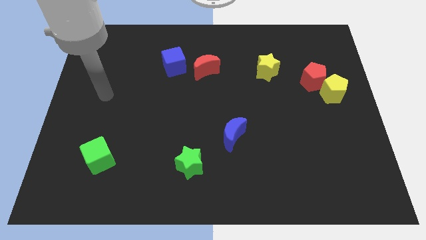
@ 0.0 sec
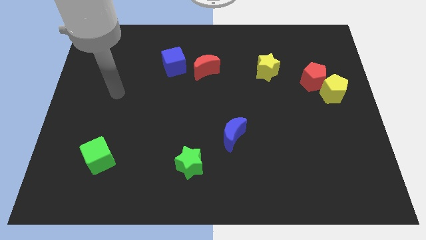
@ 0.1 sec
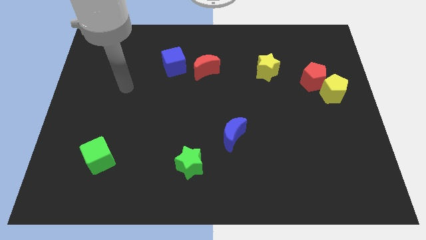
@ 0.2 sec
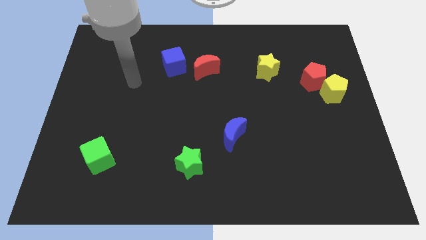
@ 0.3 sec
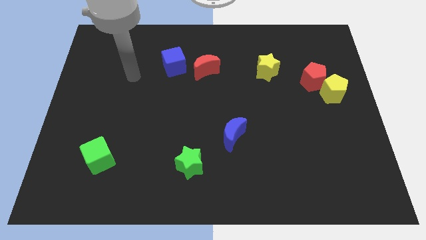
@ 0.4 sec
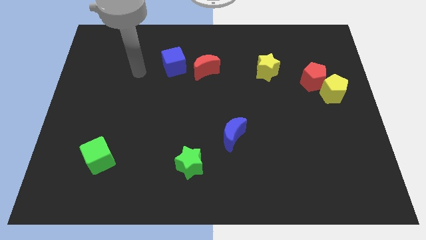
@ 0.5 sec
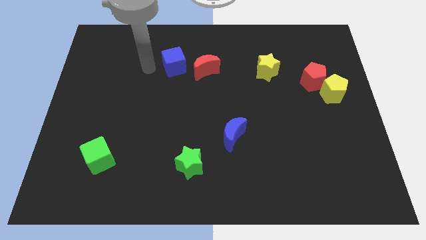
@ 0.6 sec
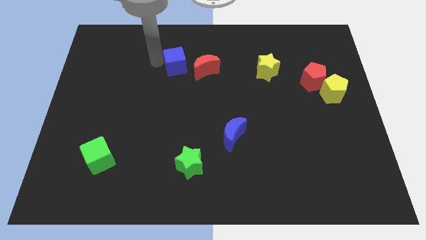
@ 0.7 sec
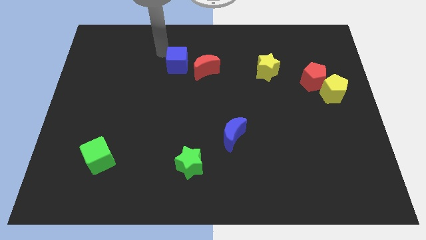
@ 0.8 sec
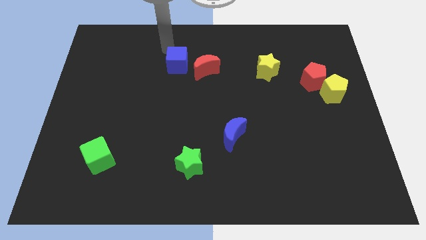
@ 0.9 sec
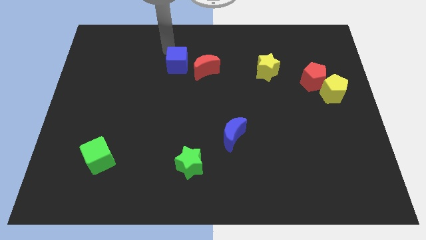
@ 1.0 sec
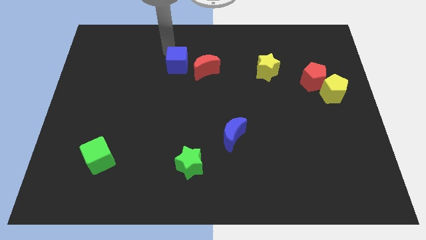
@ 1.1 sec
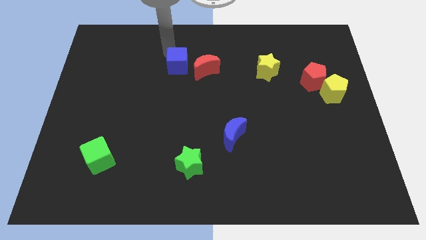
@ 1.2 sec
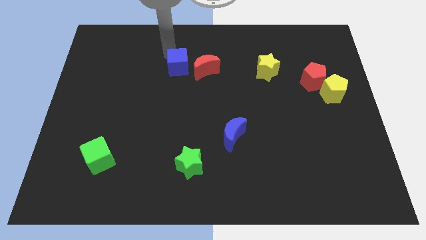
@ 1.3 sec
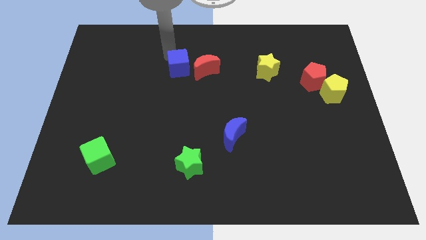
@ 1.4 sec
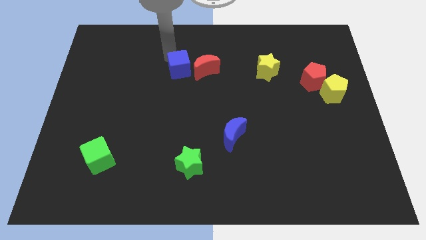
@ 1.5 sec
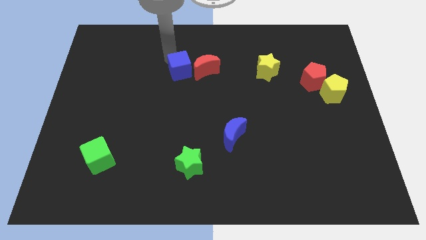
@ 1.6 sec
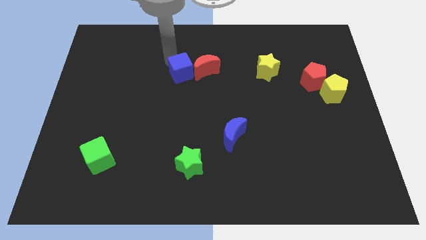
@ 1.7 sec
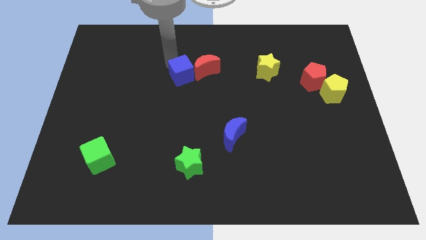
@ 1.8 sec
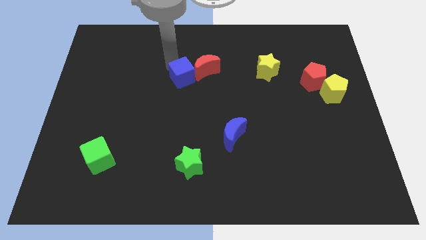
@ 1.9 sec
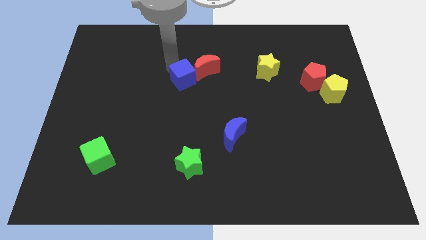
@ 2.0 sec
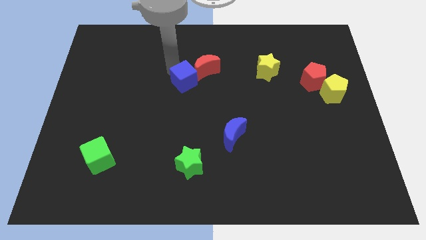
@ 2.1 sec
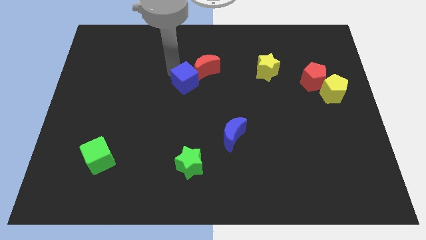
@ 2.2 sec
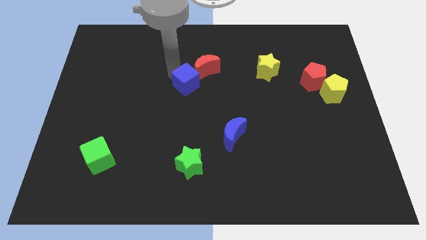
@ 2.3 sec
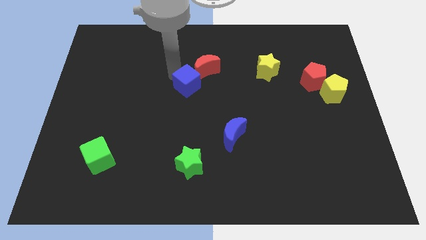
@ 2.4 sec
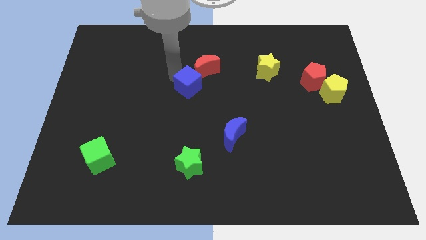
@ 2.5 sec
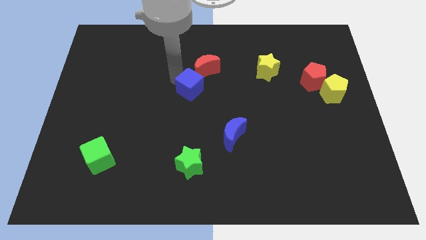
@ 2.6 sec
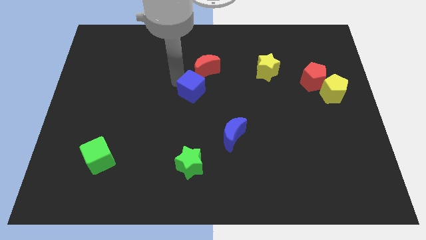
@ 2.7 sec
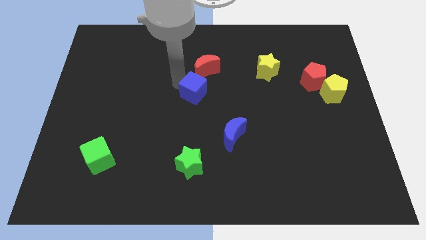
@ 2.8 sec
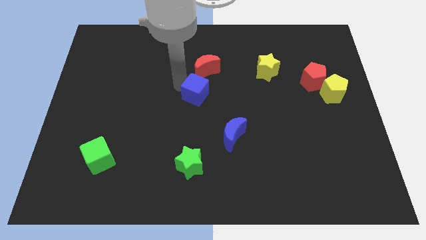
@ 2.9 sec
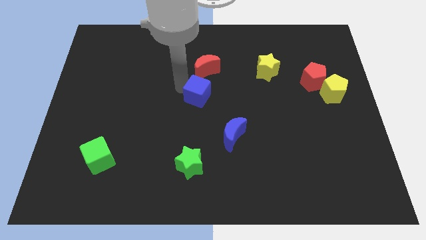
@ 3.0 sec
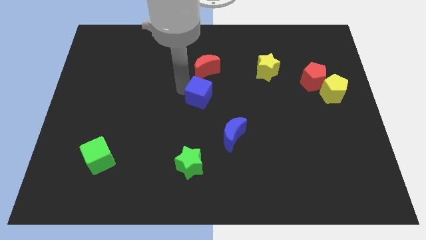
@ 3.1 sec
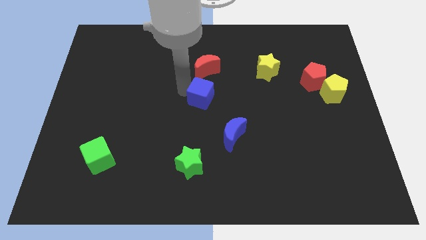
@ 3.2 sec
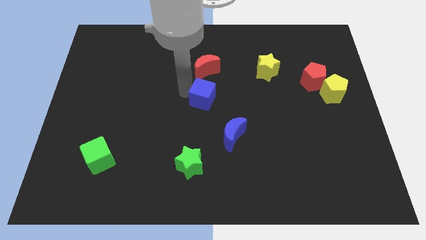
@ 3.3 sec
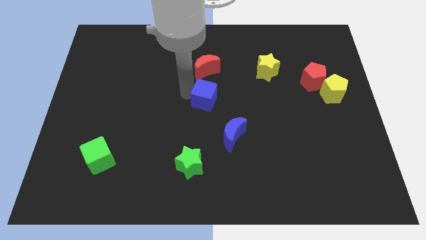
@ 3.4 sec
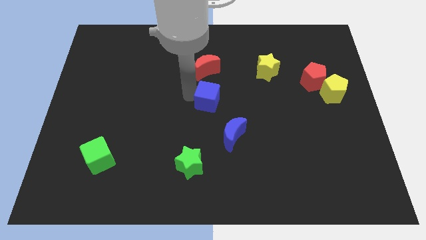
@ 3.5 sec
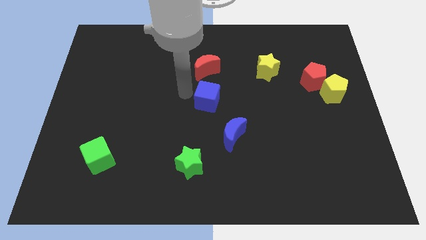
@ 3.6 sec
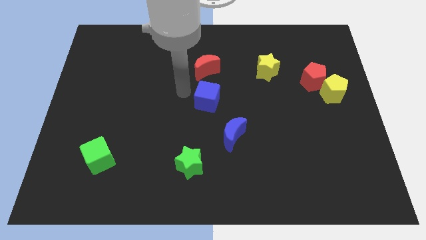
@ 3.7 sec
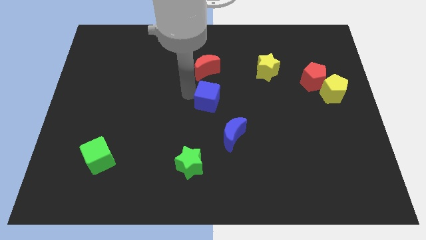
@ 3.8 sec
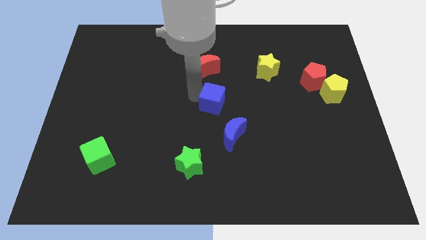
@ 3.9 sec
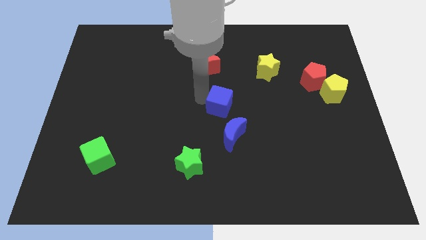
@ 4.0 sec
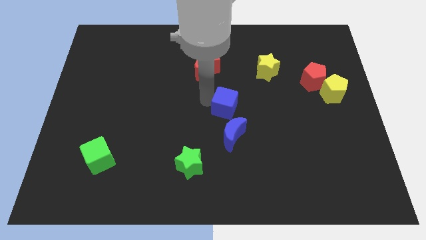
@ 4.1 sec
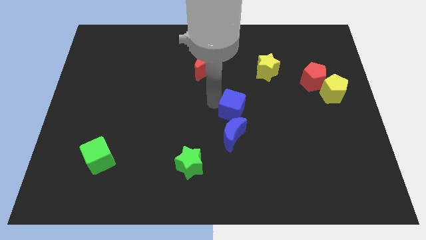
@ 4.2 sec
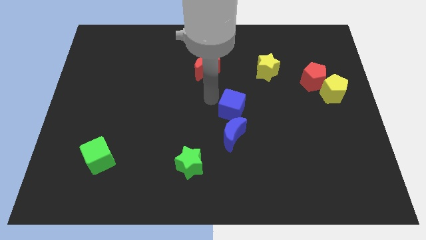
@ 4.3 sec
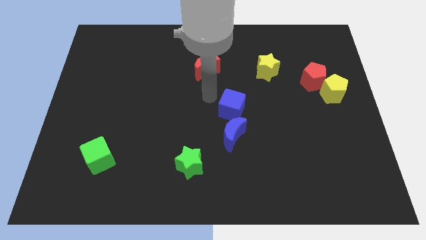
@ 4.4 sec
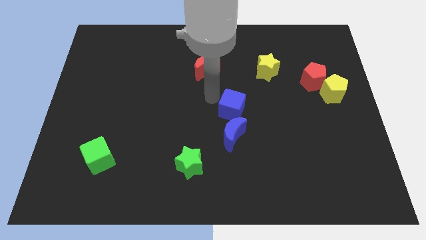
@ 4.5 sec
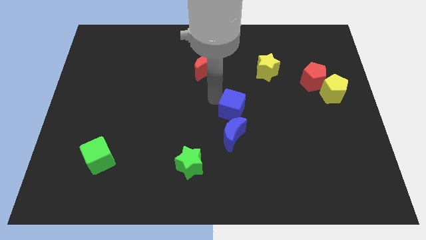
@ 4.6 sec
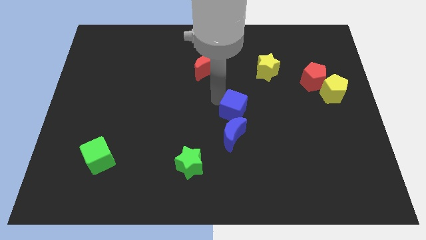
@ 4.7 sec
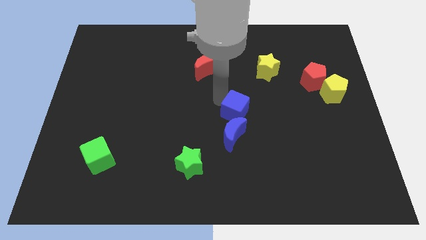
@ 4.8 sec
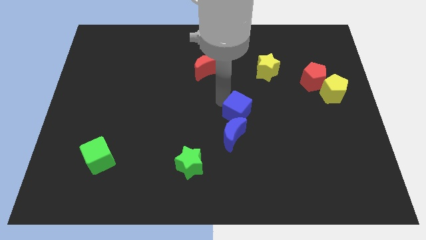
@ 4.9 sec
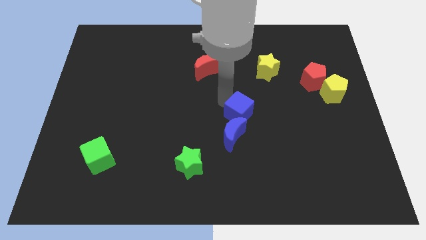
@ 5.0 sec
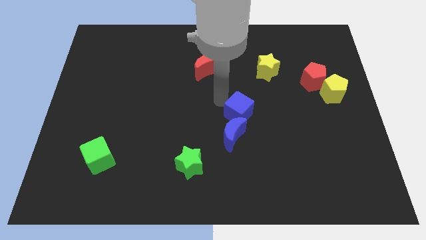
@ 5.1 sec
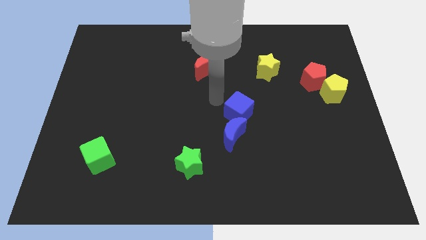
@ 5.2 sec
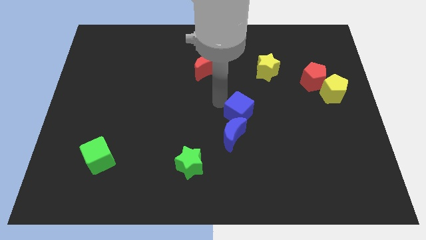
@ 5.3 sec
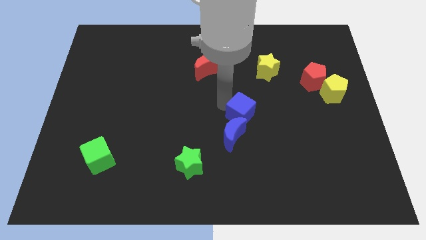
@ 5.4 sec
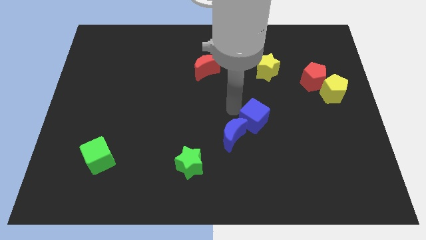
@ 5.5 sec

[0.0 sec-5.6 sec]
push the blue cube to the right side of the blue moon

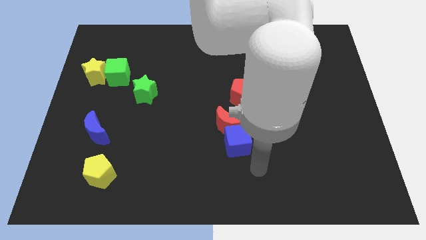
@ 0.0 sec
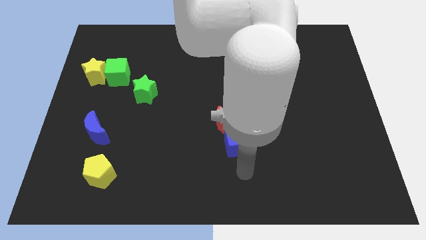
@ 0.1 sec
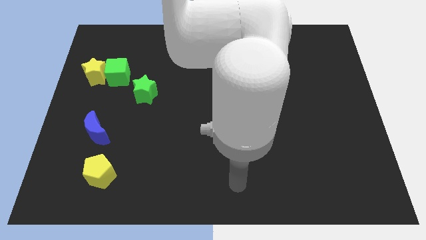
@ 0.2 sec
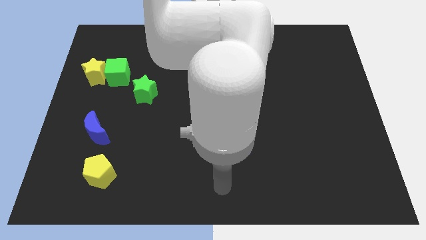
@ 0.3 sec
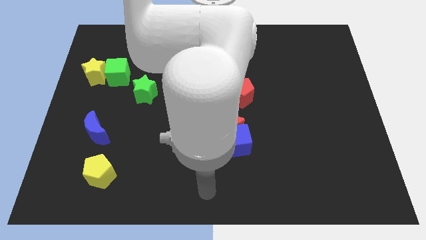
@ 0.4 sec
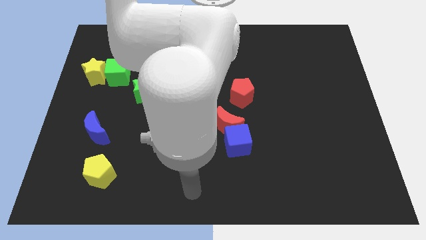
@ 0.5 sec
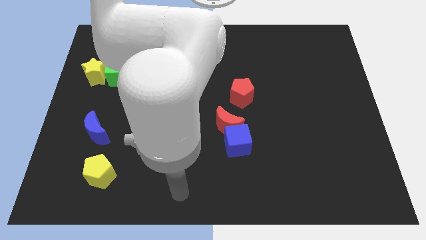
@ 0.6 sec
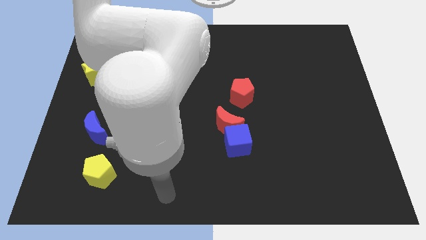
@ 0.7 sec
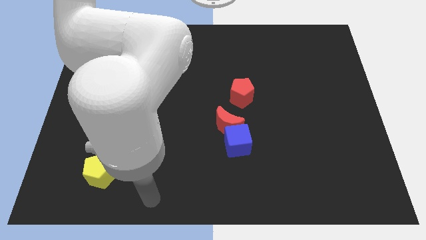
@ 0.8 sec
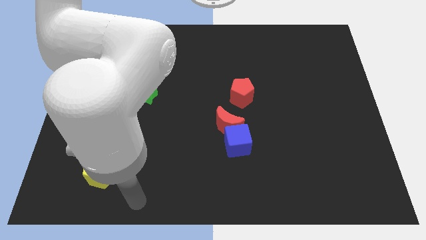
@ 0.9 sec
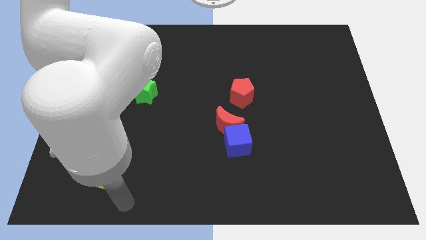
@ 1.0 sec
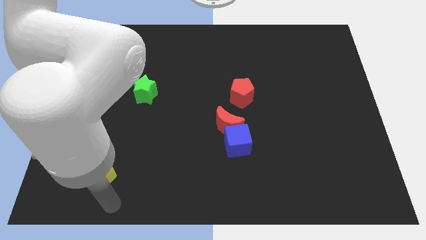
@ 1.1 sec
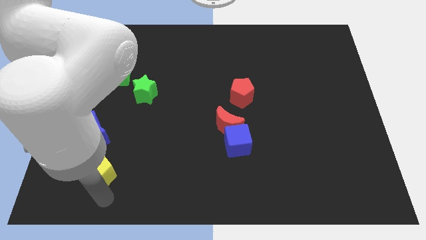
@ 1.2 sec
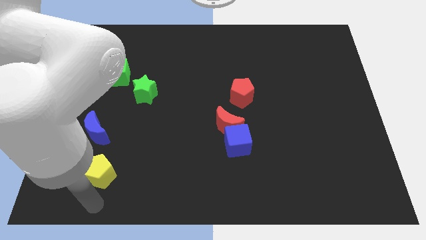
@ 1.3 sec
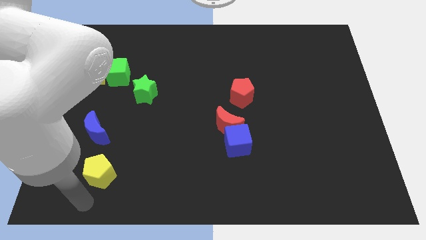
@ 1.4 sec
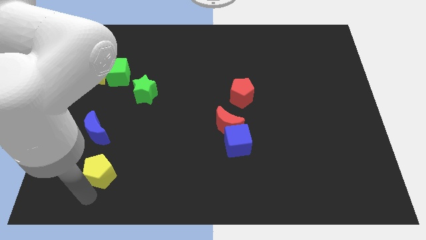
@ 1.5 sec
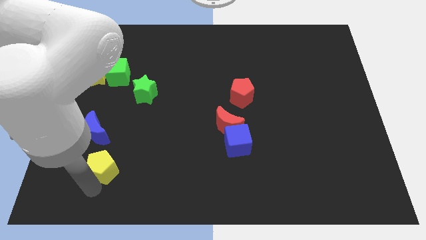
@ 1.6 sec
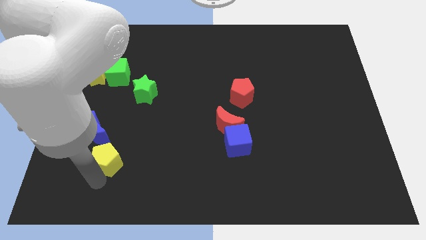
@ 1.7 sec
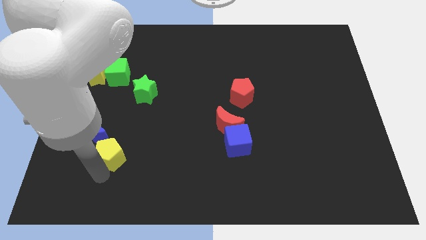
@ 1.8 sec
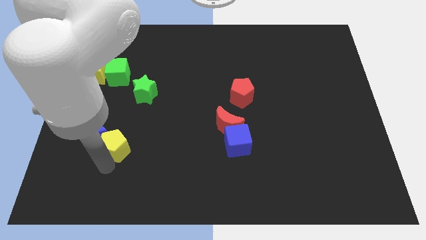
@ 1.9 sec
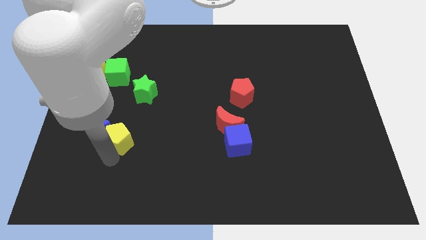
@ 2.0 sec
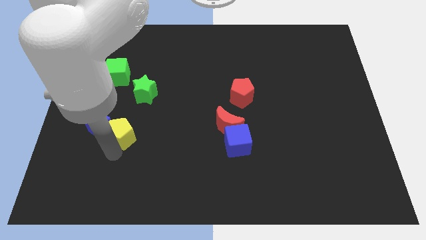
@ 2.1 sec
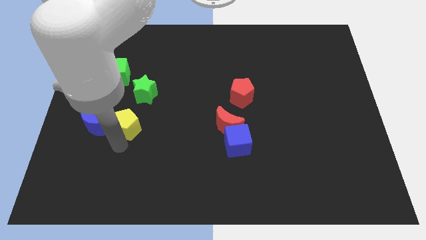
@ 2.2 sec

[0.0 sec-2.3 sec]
move the yellow pentagon to the top right of the blue moon
